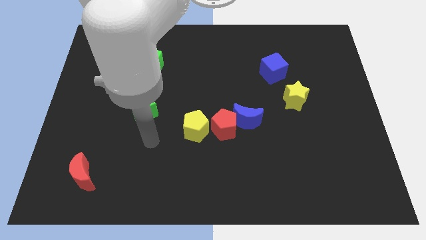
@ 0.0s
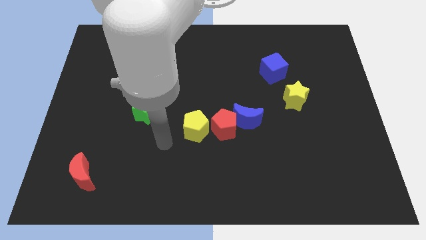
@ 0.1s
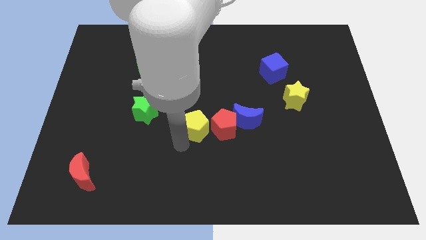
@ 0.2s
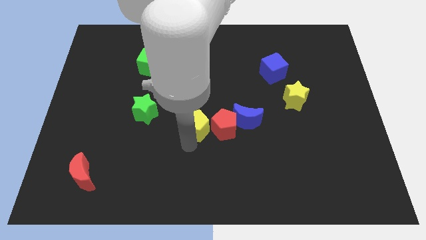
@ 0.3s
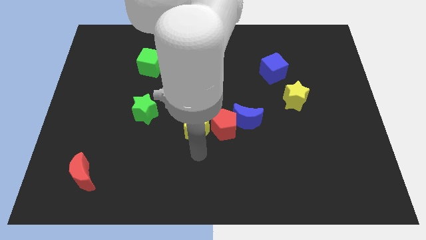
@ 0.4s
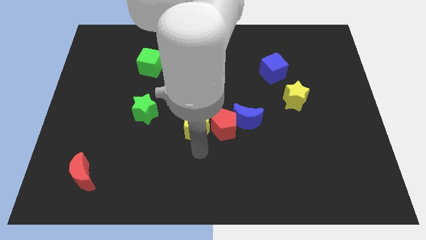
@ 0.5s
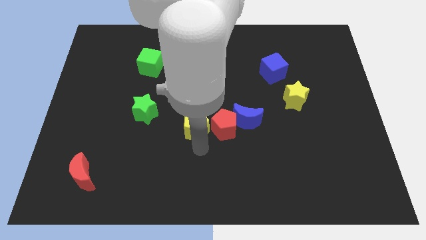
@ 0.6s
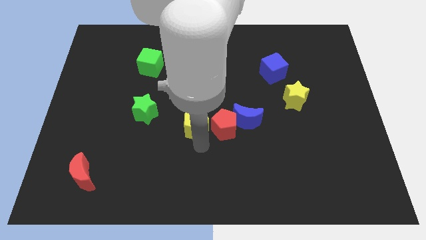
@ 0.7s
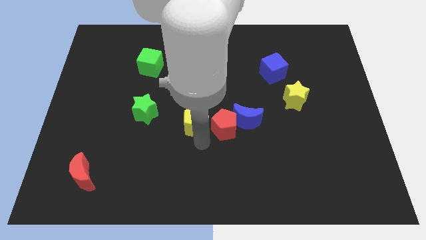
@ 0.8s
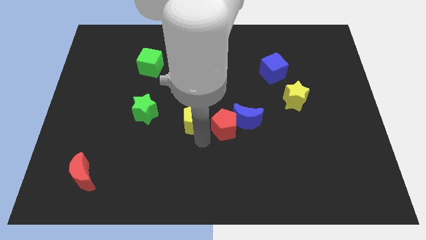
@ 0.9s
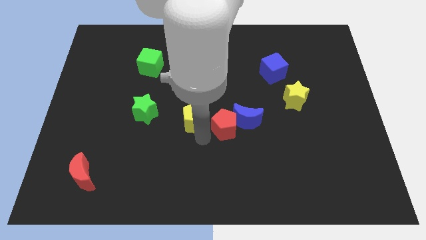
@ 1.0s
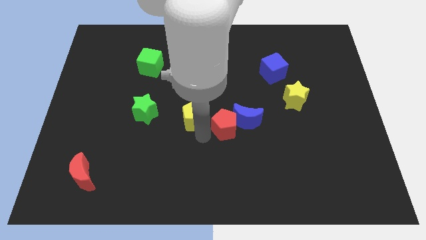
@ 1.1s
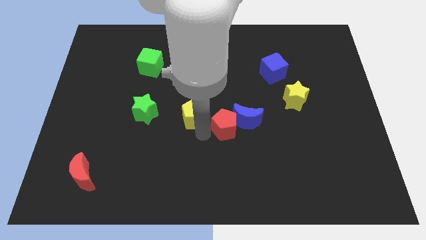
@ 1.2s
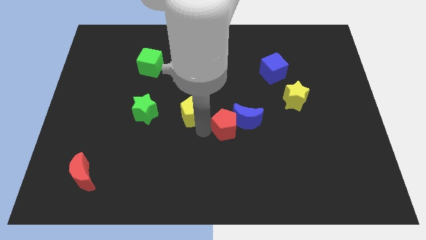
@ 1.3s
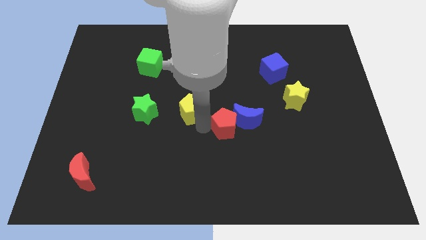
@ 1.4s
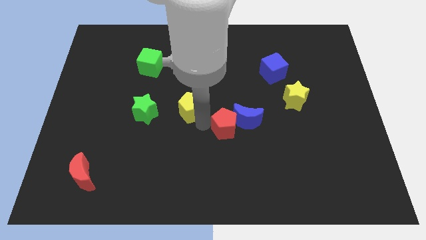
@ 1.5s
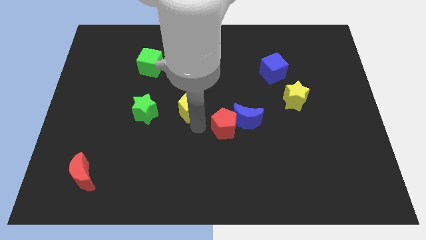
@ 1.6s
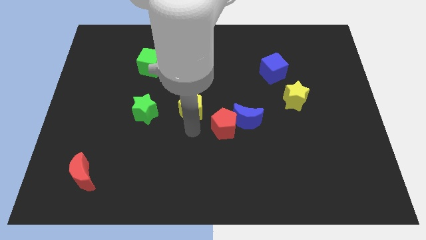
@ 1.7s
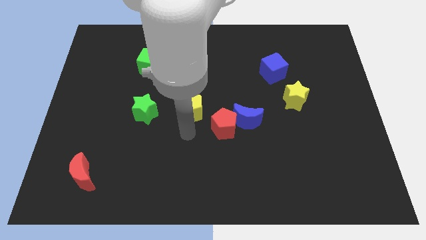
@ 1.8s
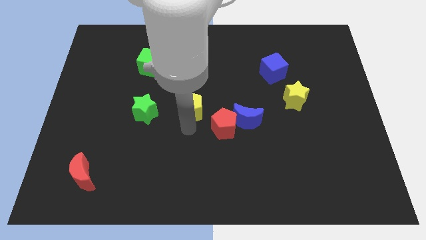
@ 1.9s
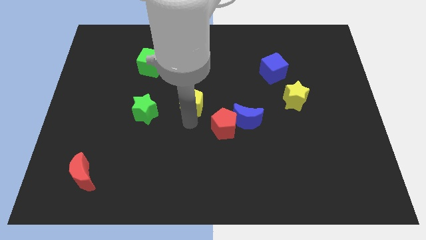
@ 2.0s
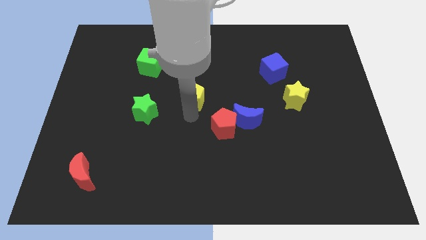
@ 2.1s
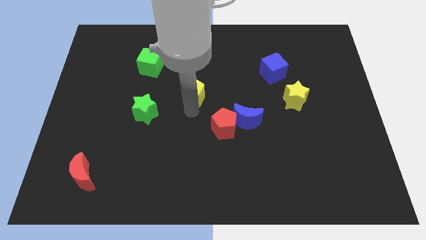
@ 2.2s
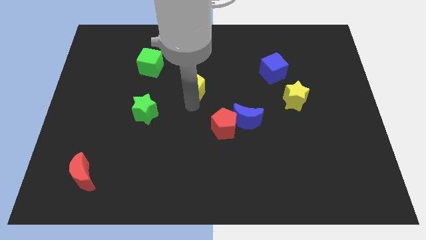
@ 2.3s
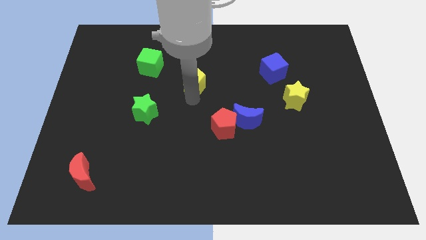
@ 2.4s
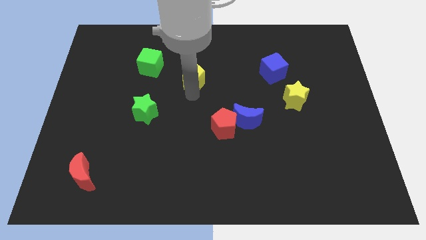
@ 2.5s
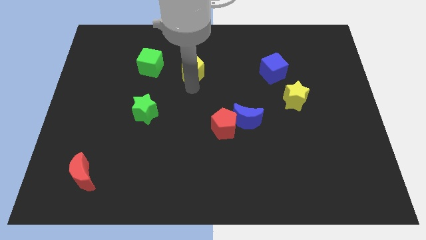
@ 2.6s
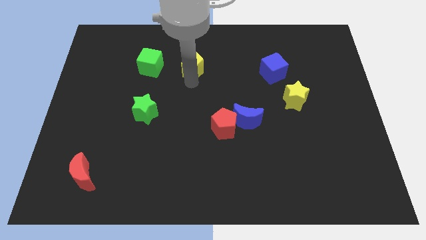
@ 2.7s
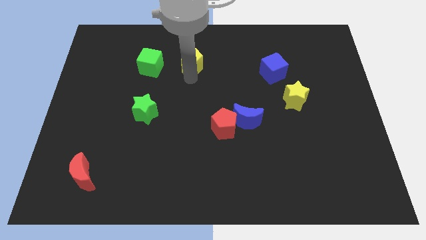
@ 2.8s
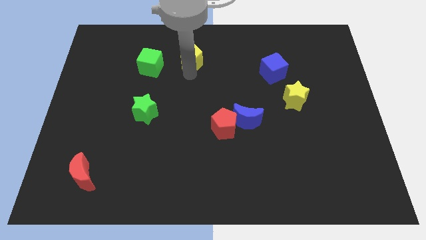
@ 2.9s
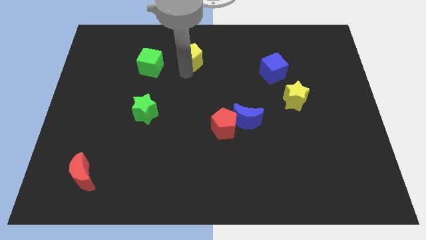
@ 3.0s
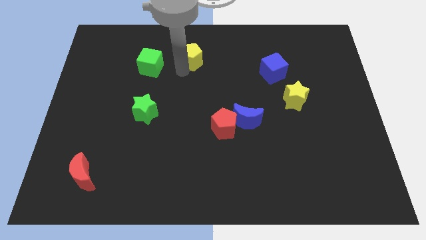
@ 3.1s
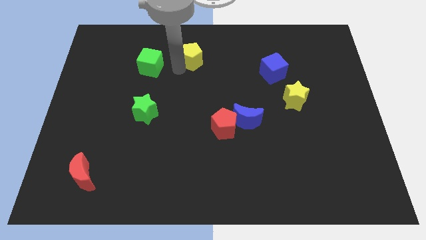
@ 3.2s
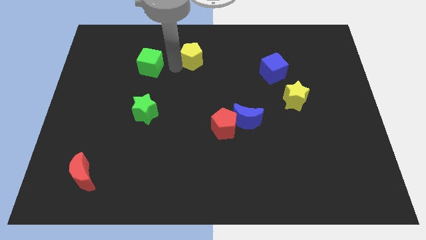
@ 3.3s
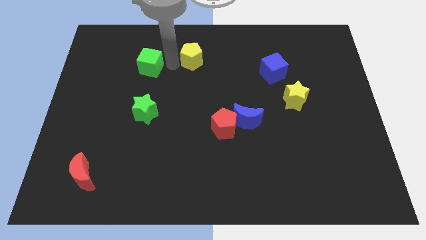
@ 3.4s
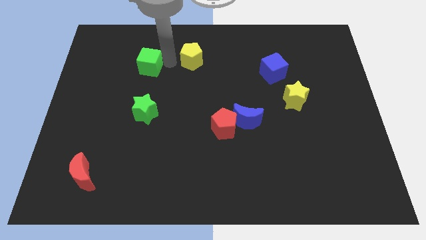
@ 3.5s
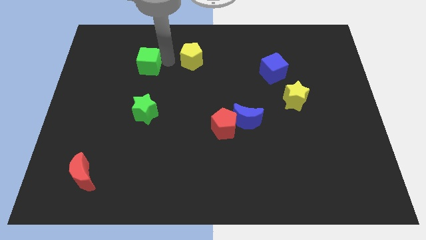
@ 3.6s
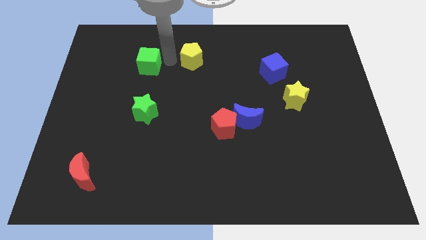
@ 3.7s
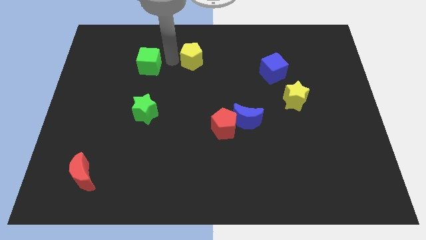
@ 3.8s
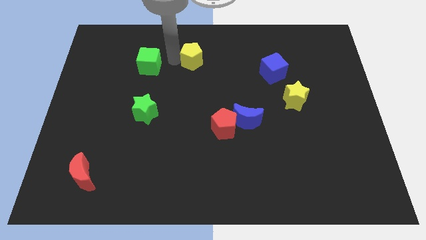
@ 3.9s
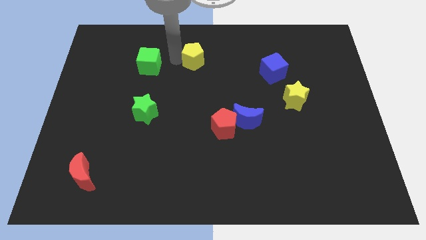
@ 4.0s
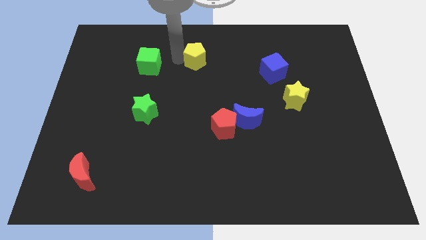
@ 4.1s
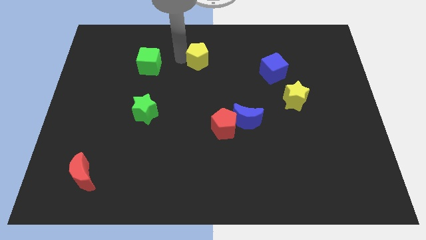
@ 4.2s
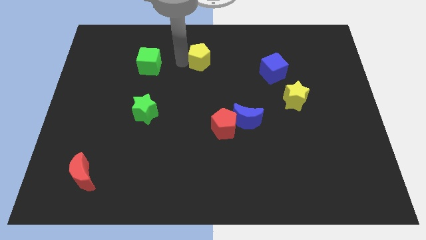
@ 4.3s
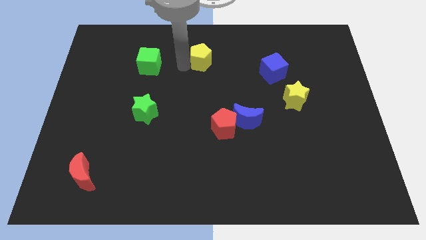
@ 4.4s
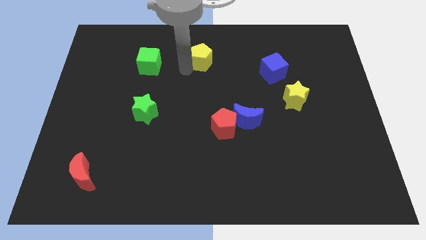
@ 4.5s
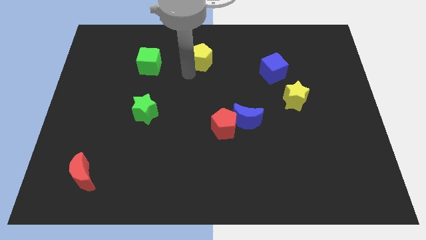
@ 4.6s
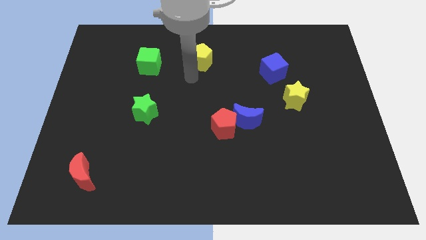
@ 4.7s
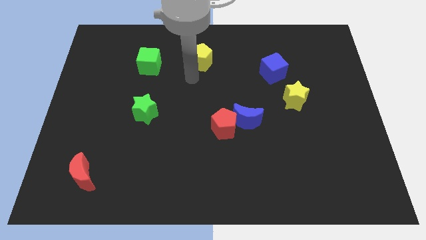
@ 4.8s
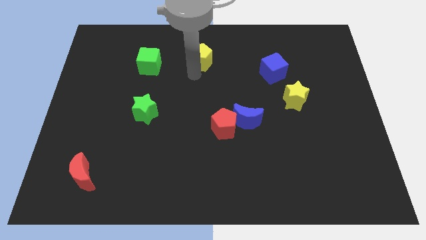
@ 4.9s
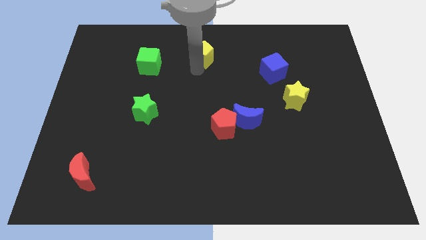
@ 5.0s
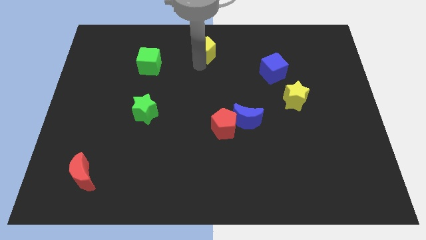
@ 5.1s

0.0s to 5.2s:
move the yellow pentagon to the towards your base
